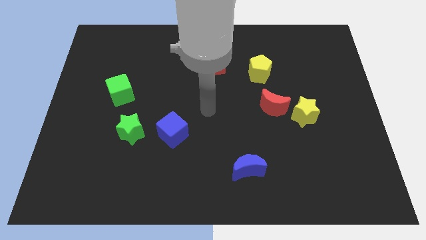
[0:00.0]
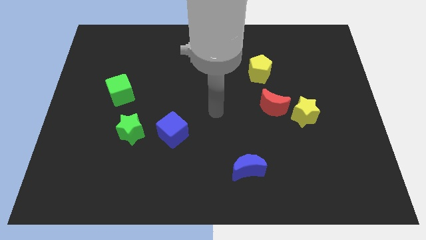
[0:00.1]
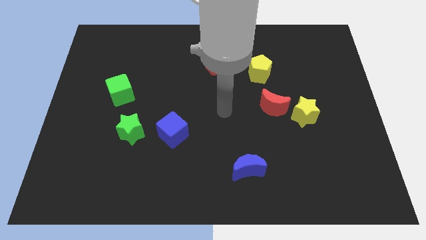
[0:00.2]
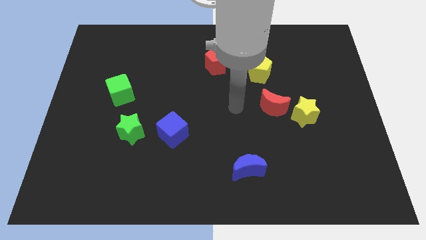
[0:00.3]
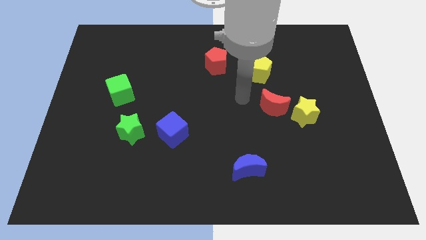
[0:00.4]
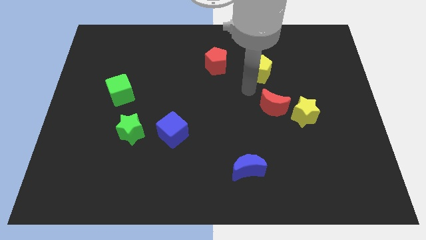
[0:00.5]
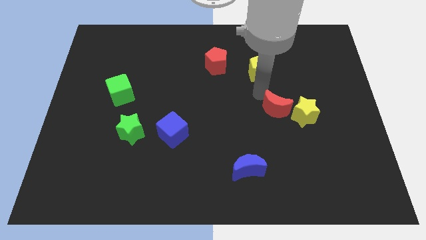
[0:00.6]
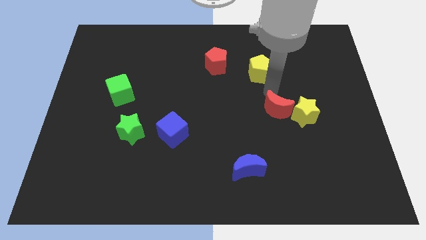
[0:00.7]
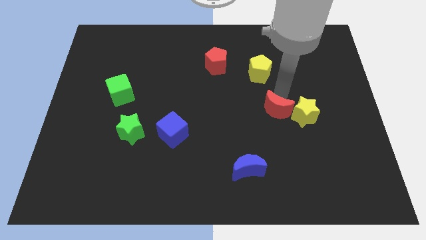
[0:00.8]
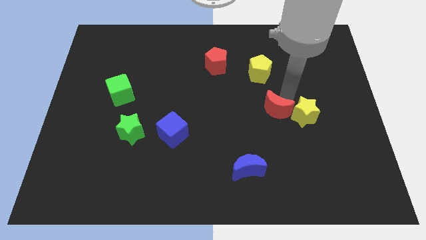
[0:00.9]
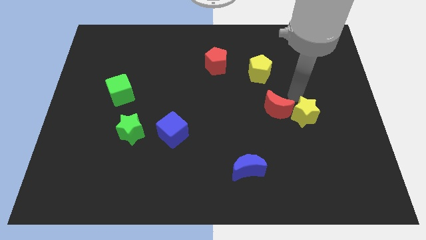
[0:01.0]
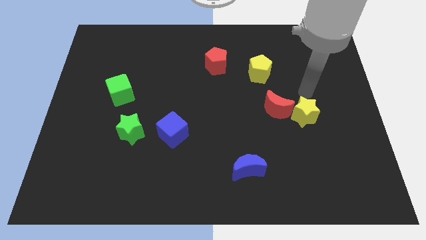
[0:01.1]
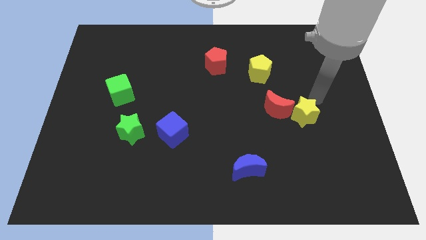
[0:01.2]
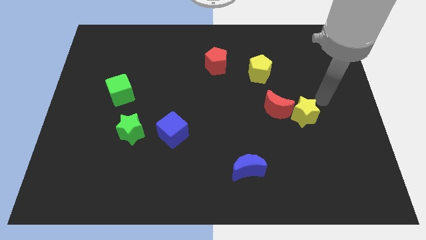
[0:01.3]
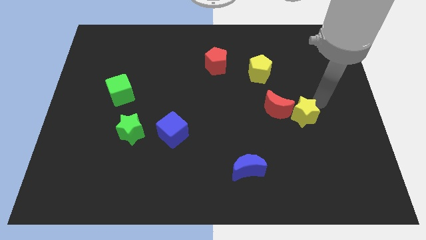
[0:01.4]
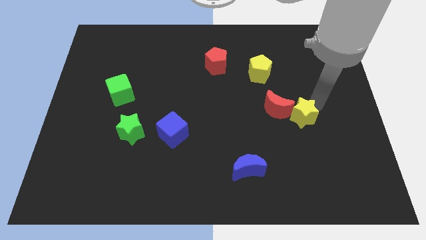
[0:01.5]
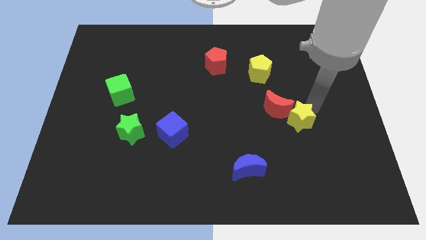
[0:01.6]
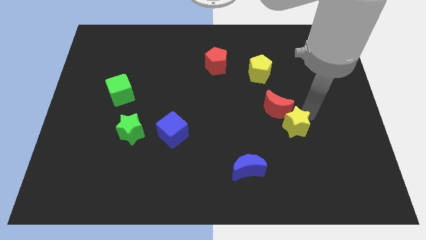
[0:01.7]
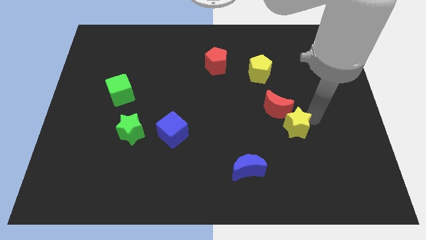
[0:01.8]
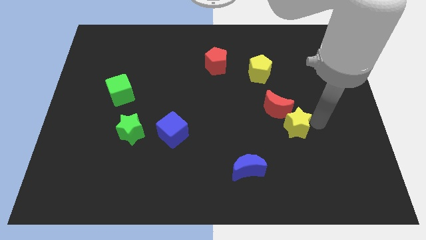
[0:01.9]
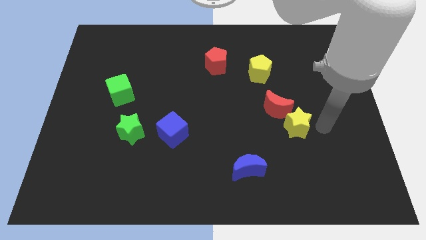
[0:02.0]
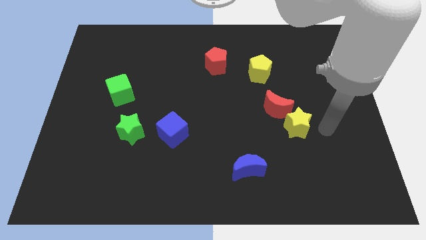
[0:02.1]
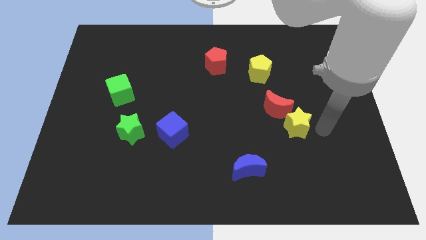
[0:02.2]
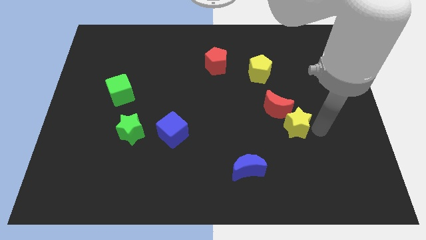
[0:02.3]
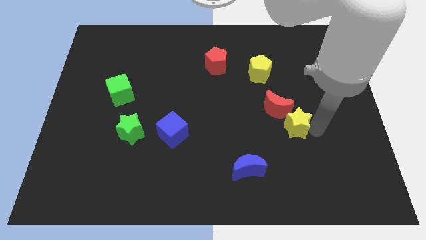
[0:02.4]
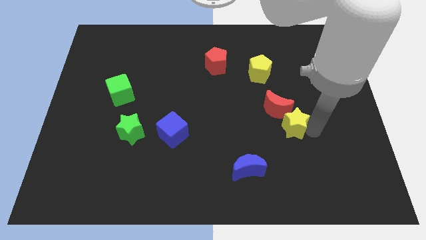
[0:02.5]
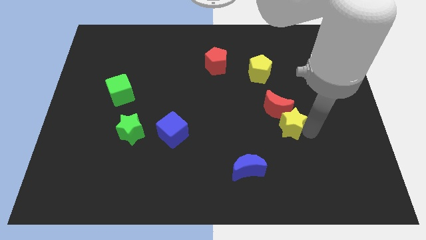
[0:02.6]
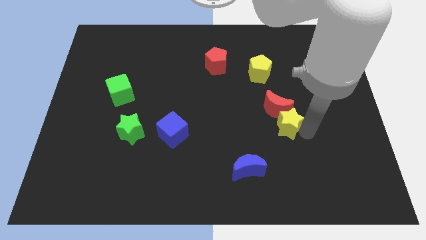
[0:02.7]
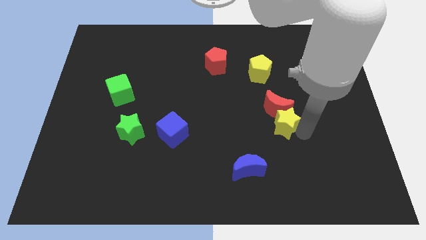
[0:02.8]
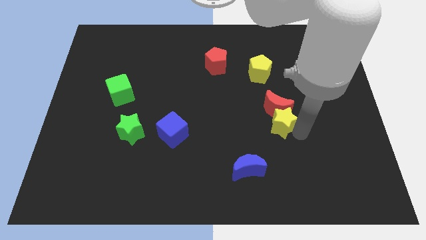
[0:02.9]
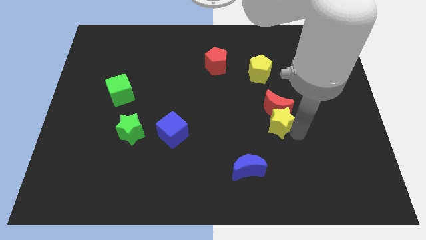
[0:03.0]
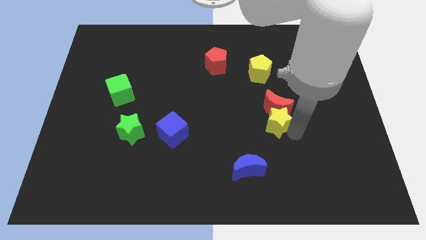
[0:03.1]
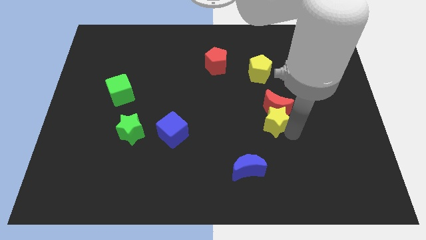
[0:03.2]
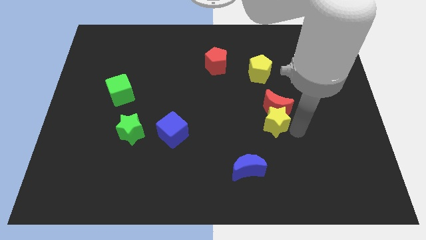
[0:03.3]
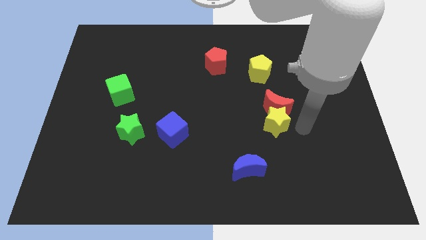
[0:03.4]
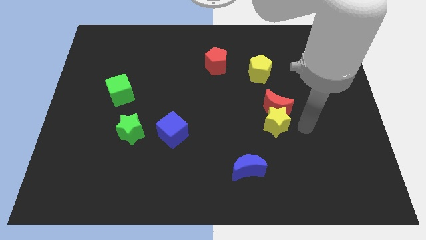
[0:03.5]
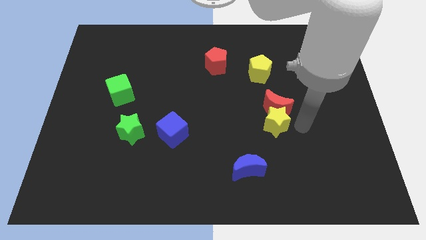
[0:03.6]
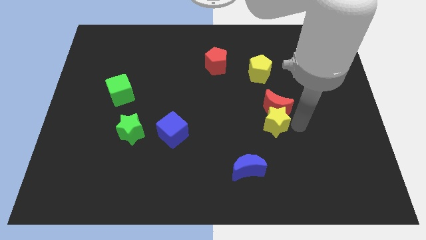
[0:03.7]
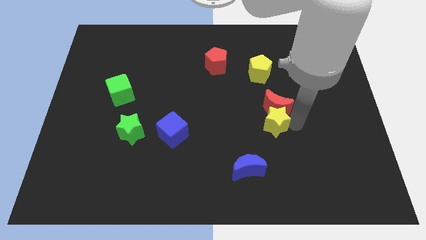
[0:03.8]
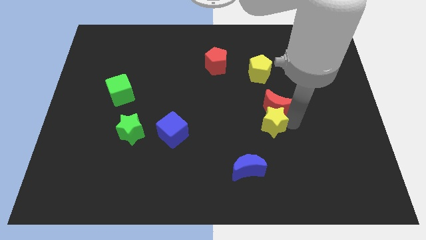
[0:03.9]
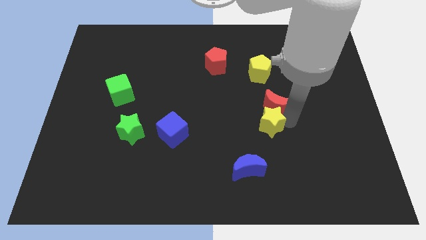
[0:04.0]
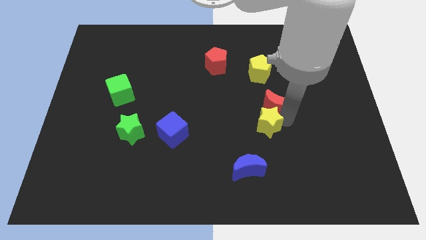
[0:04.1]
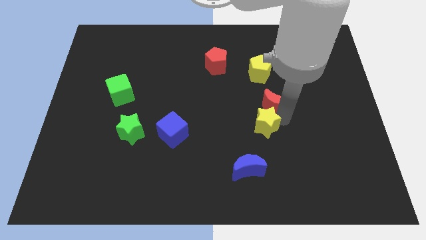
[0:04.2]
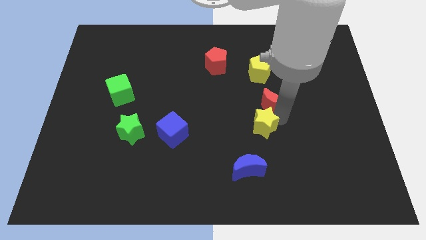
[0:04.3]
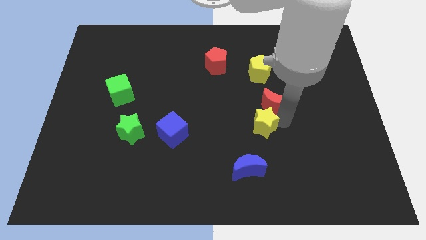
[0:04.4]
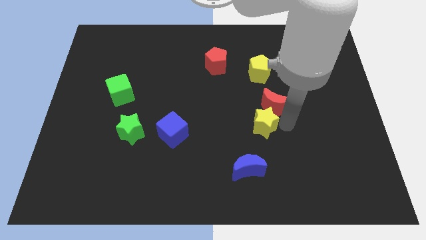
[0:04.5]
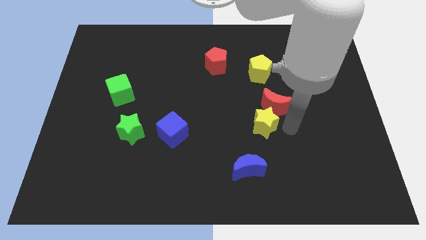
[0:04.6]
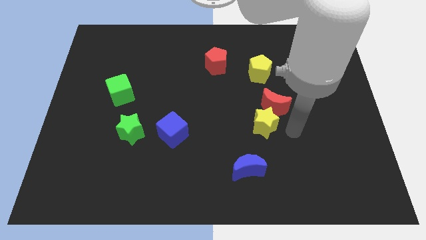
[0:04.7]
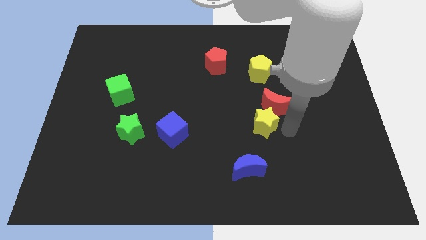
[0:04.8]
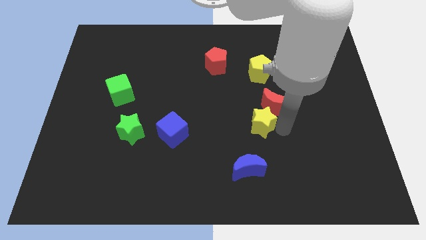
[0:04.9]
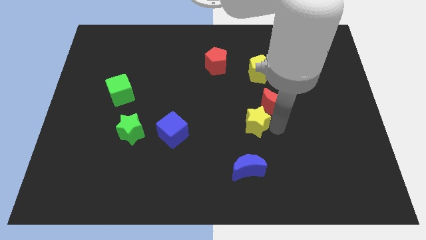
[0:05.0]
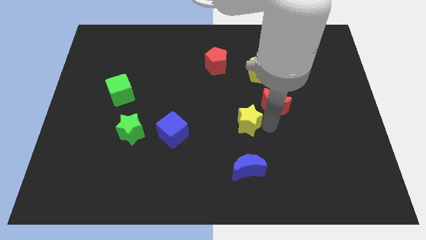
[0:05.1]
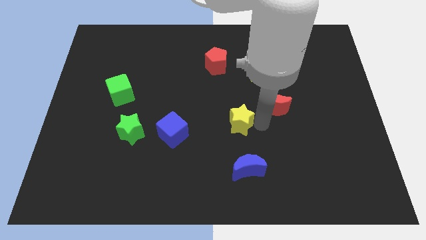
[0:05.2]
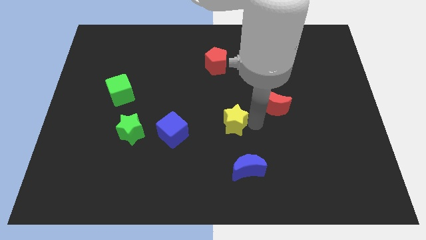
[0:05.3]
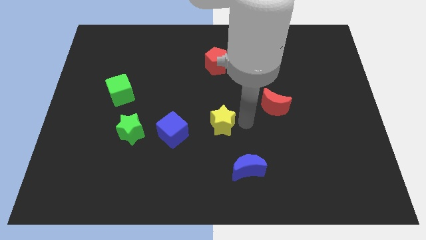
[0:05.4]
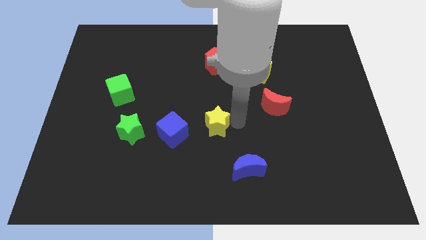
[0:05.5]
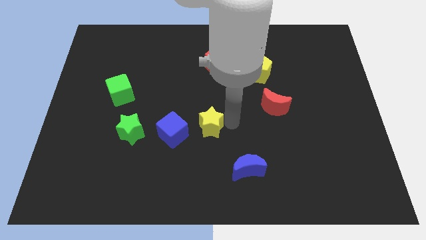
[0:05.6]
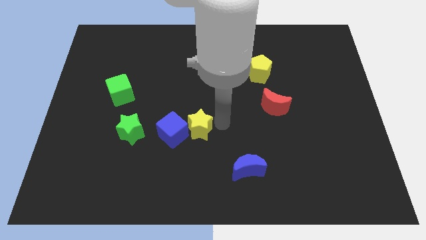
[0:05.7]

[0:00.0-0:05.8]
slide the yellow star next to the blue cube

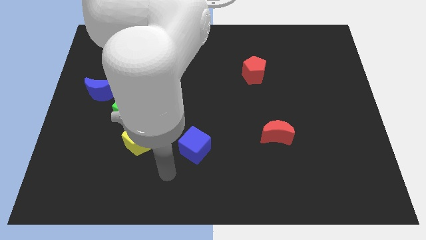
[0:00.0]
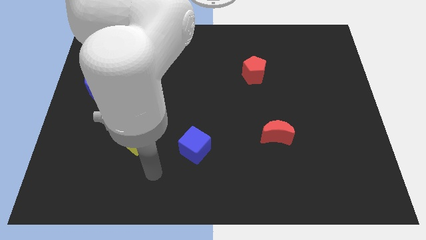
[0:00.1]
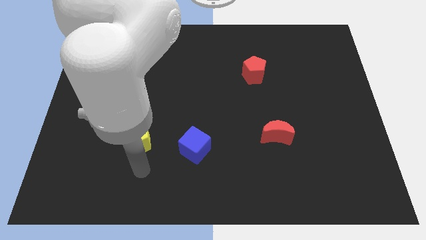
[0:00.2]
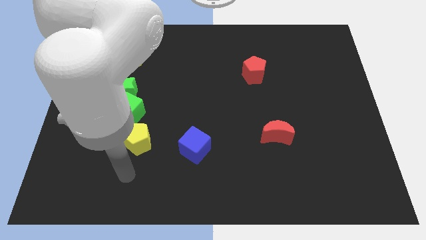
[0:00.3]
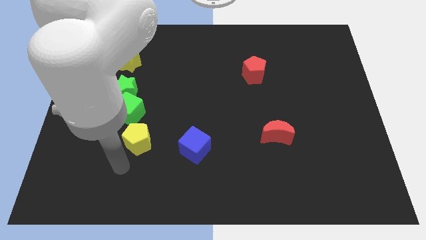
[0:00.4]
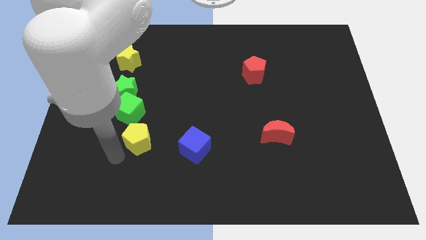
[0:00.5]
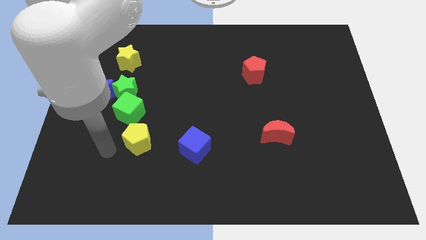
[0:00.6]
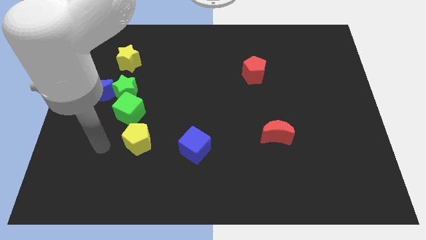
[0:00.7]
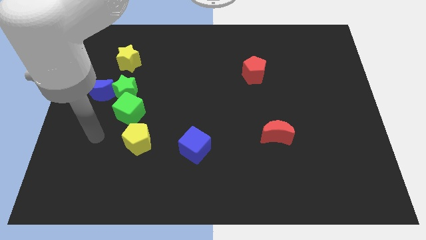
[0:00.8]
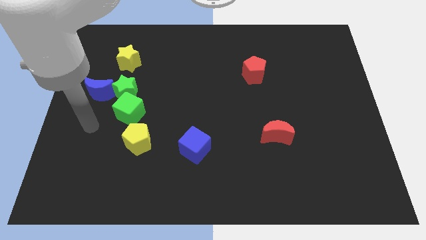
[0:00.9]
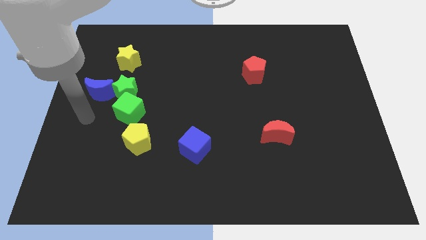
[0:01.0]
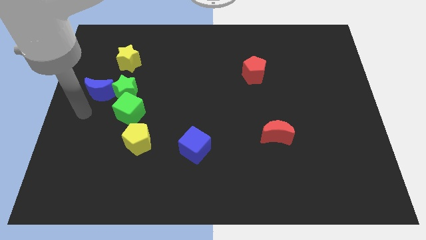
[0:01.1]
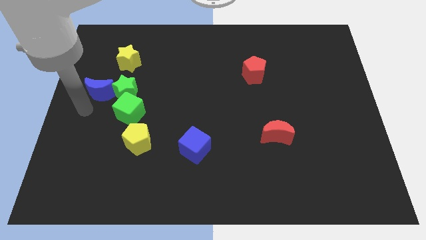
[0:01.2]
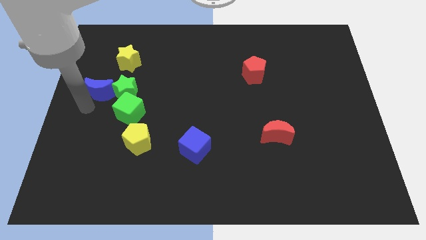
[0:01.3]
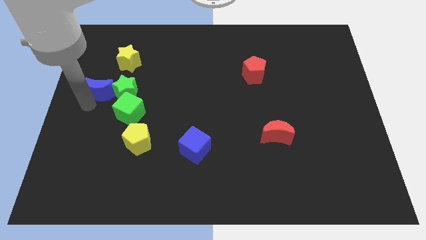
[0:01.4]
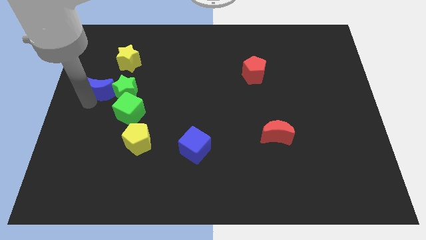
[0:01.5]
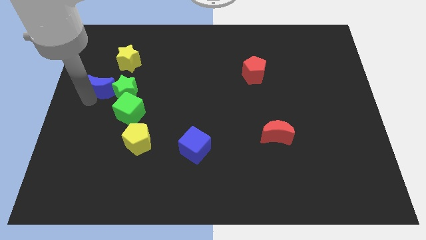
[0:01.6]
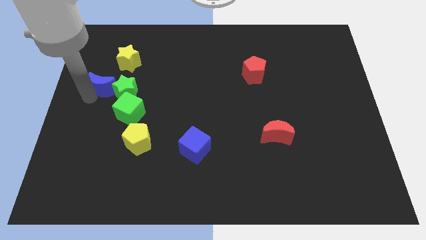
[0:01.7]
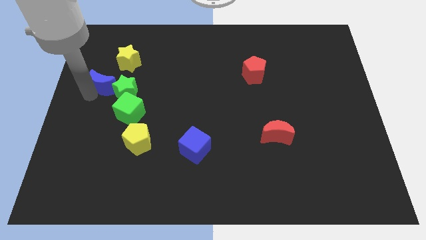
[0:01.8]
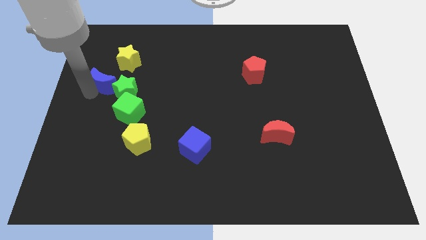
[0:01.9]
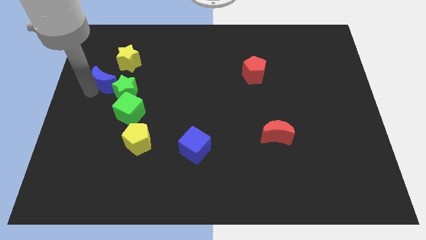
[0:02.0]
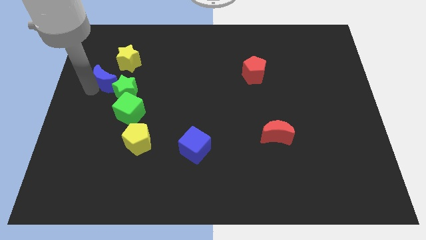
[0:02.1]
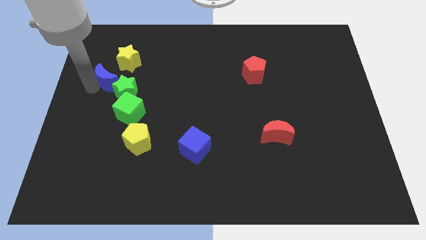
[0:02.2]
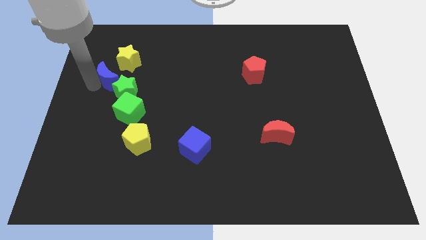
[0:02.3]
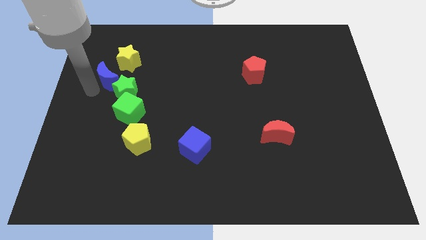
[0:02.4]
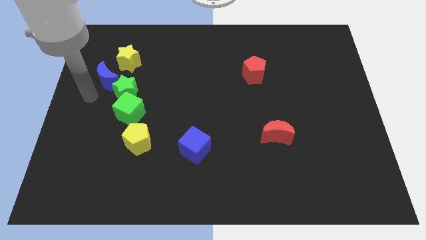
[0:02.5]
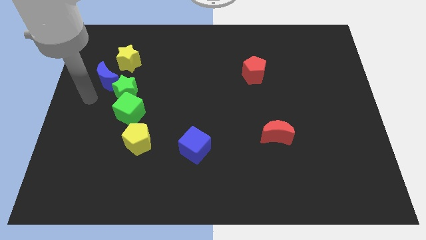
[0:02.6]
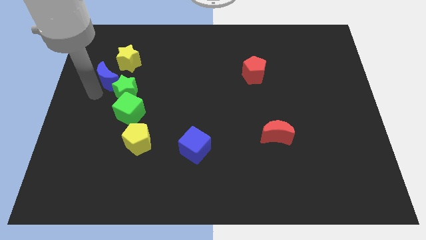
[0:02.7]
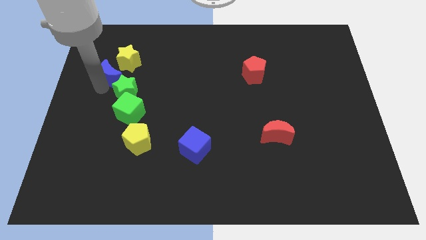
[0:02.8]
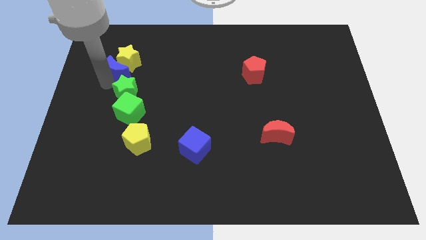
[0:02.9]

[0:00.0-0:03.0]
push the blue moon close to the yellow star
